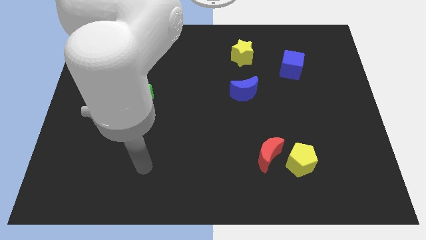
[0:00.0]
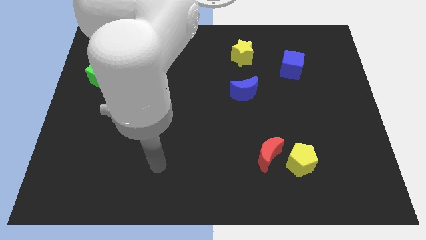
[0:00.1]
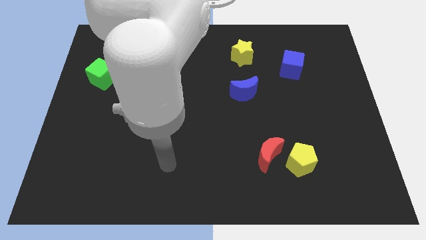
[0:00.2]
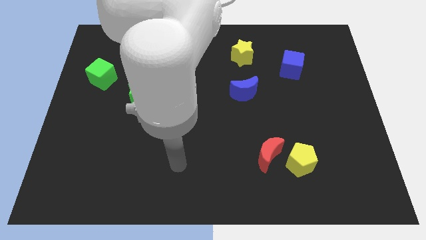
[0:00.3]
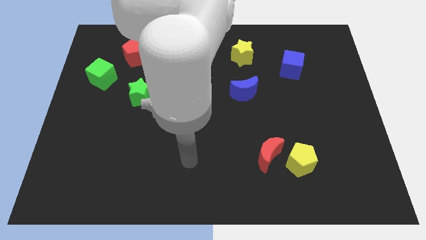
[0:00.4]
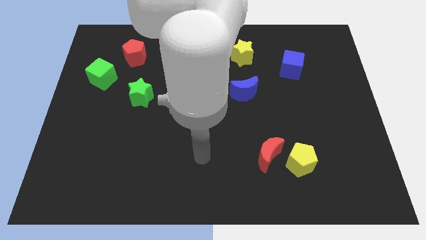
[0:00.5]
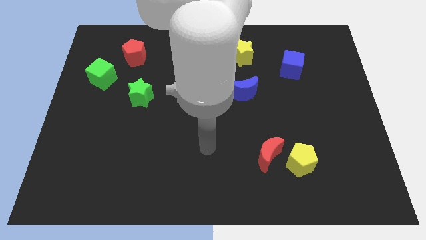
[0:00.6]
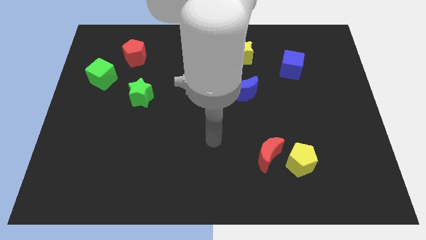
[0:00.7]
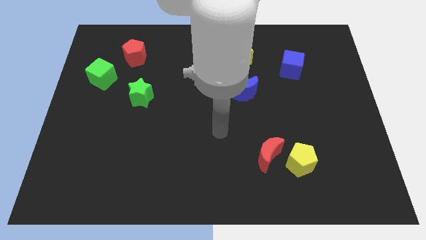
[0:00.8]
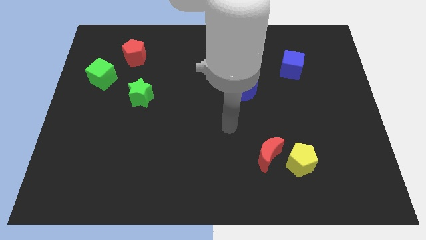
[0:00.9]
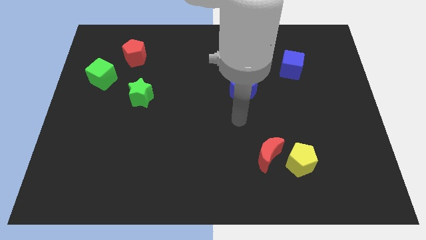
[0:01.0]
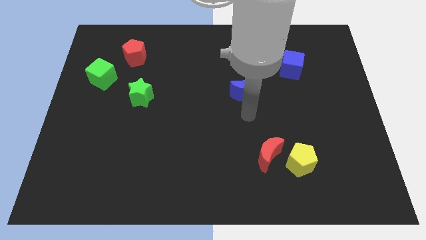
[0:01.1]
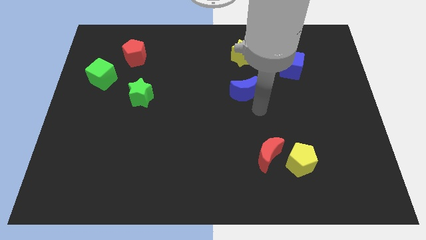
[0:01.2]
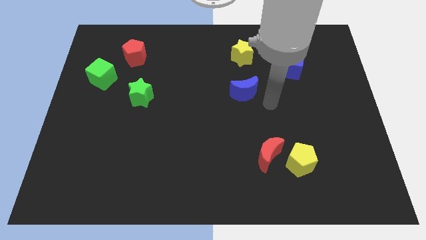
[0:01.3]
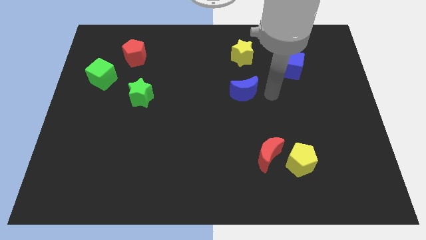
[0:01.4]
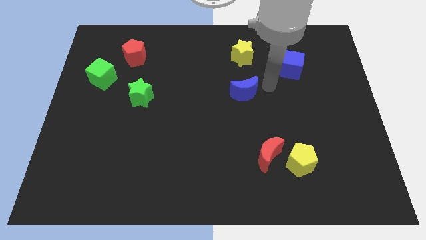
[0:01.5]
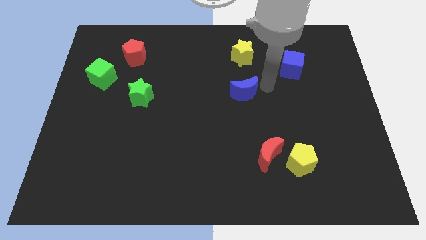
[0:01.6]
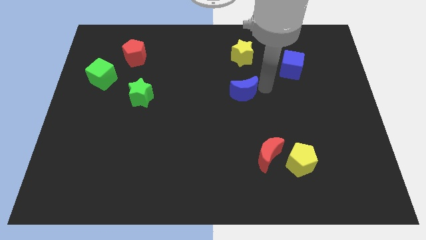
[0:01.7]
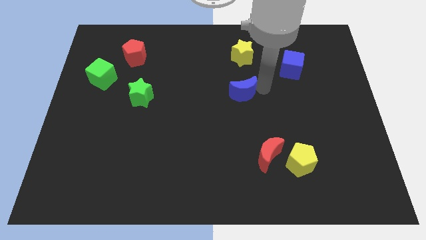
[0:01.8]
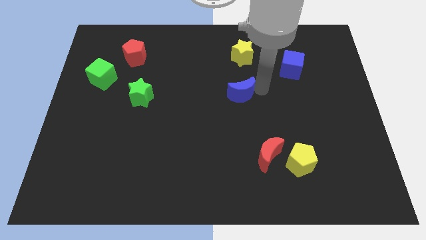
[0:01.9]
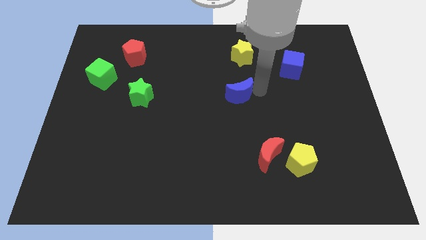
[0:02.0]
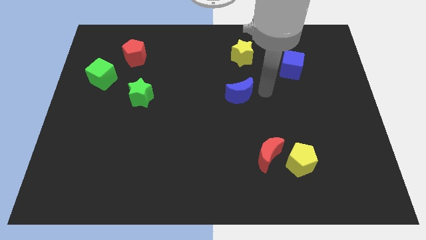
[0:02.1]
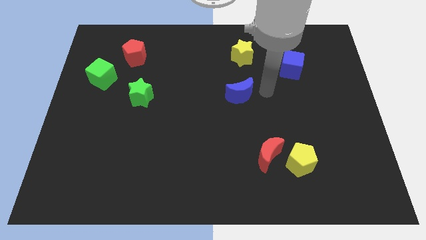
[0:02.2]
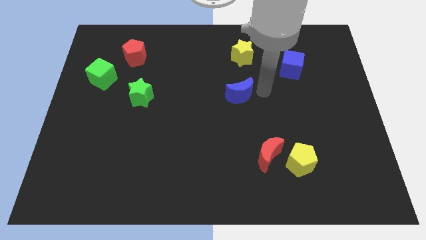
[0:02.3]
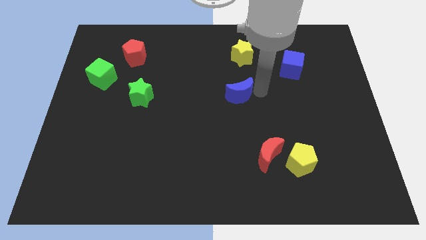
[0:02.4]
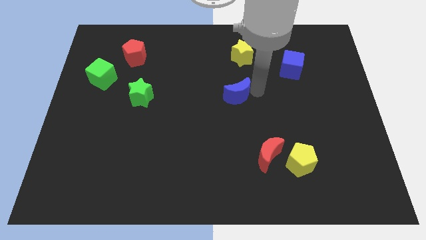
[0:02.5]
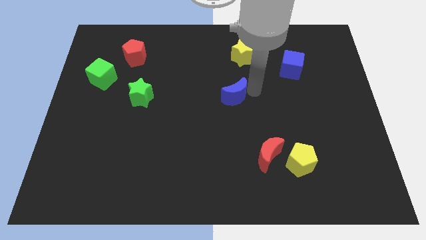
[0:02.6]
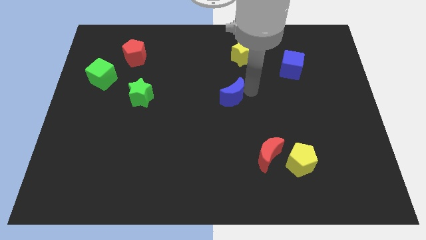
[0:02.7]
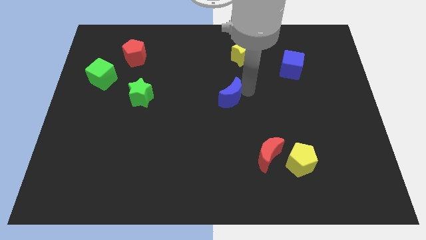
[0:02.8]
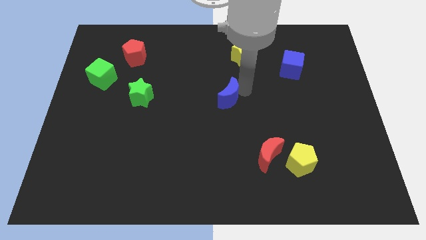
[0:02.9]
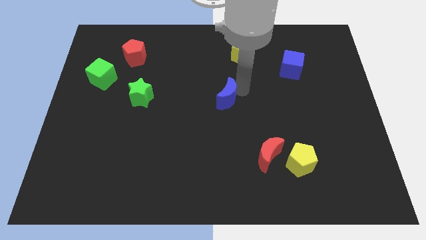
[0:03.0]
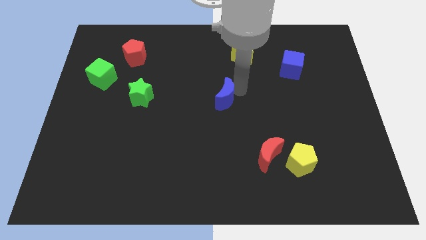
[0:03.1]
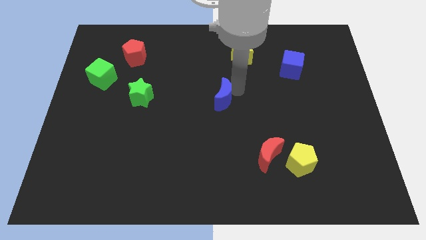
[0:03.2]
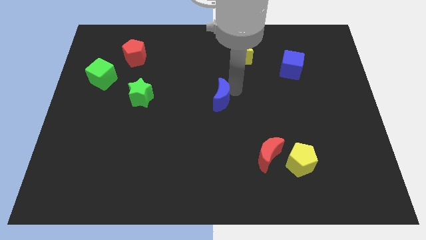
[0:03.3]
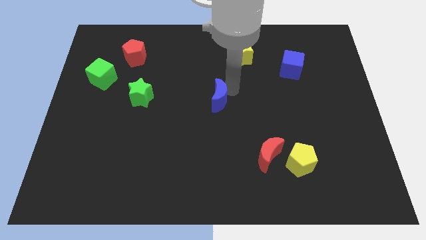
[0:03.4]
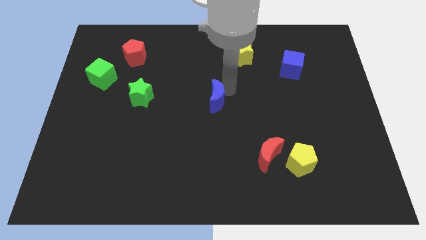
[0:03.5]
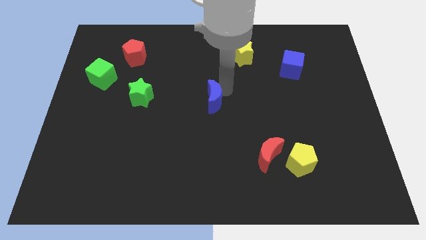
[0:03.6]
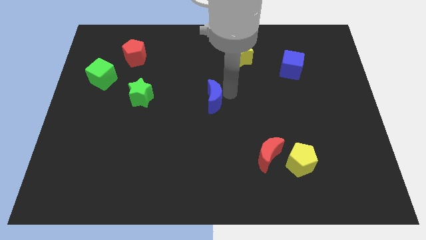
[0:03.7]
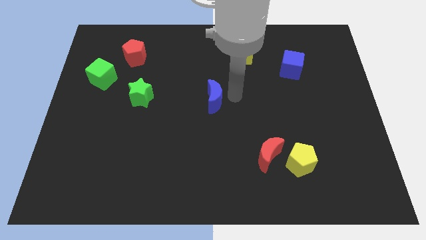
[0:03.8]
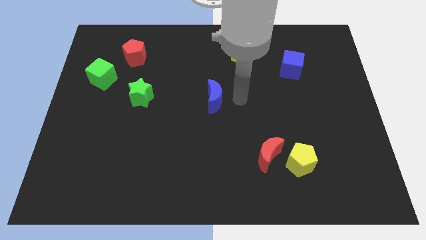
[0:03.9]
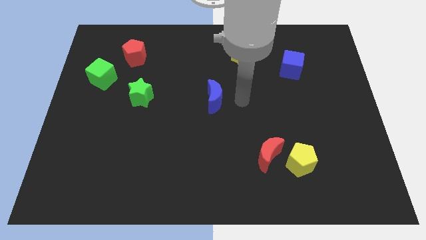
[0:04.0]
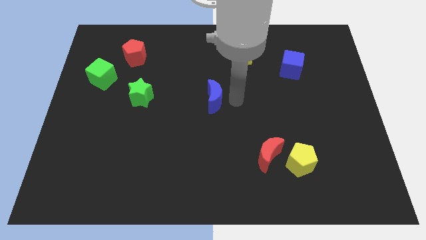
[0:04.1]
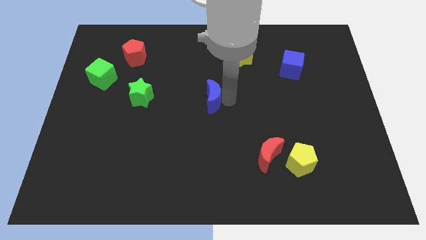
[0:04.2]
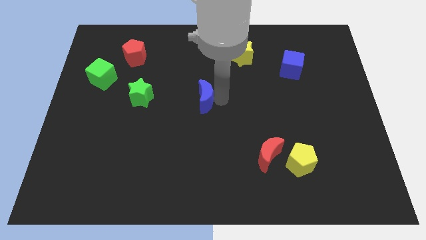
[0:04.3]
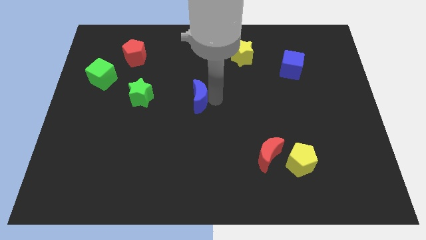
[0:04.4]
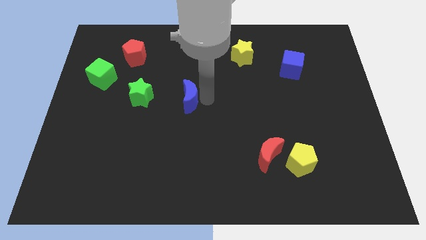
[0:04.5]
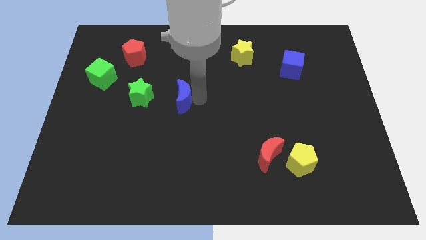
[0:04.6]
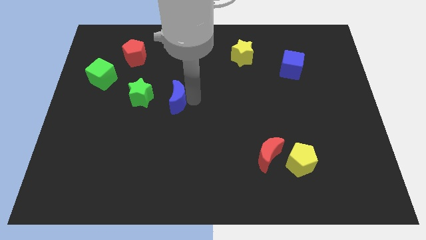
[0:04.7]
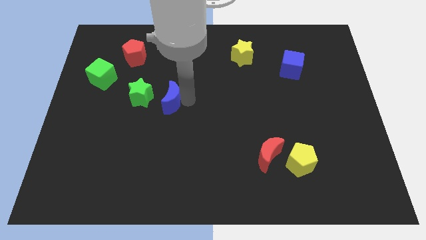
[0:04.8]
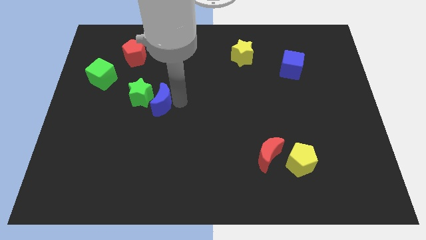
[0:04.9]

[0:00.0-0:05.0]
move the blue moon to the green star

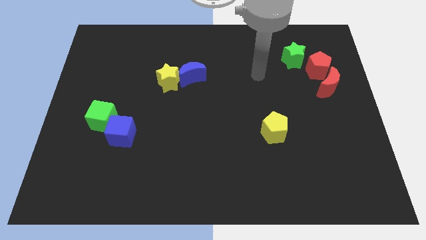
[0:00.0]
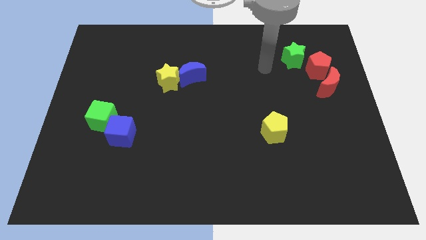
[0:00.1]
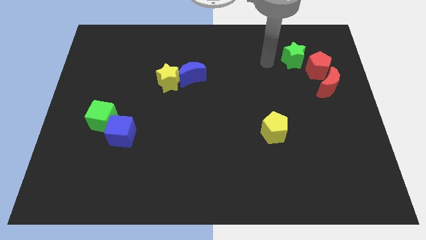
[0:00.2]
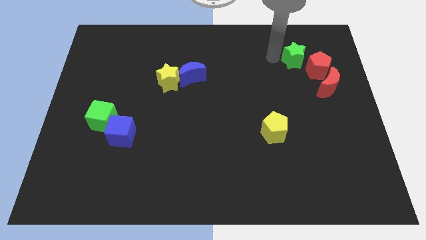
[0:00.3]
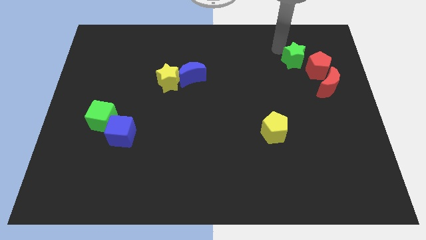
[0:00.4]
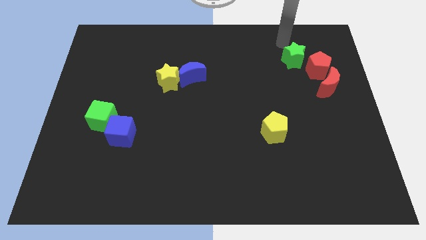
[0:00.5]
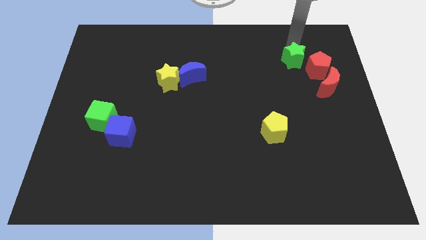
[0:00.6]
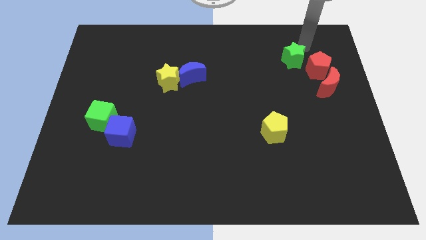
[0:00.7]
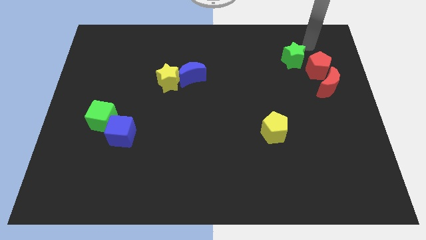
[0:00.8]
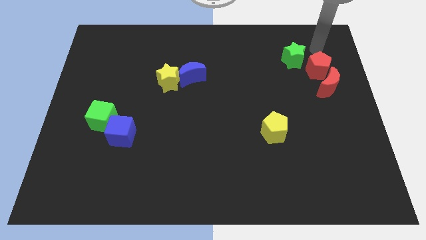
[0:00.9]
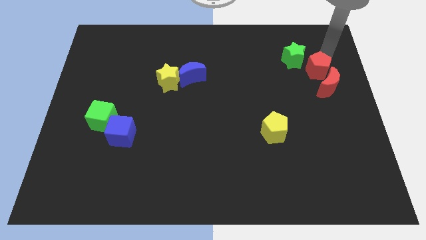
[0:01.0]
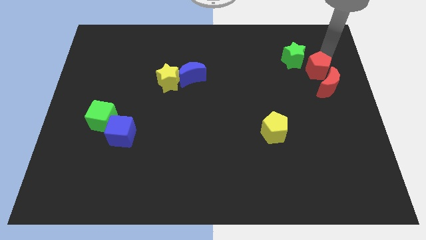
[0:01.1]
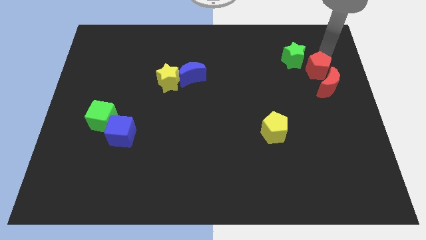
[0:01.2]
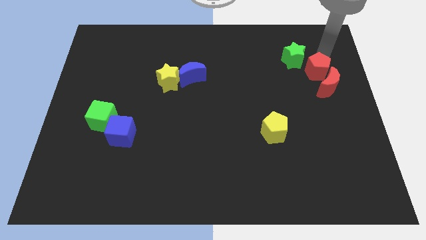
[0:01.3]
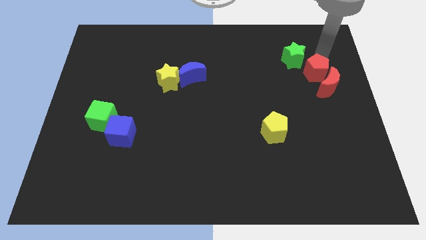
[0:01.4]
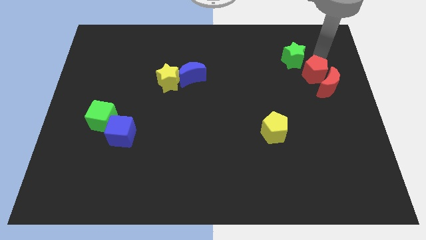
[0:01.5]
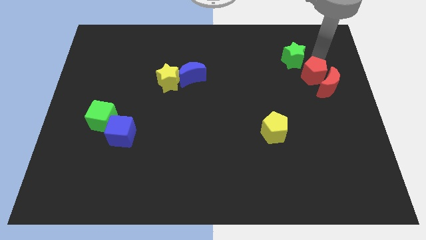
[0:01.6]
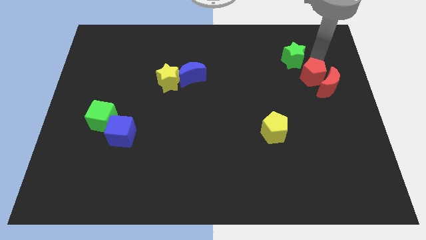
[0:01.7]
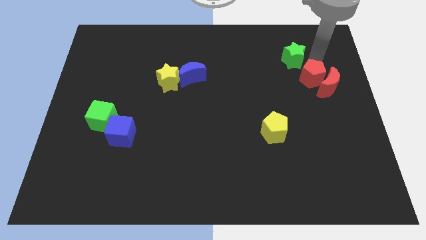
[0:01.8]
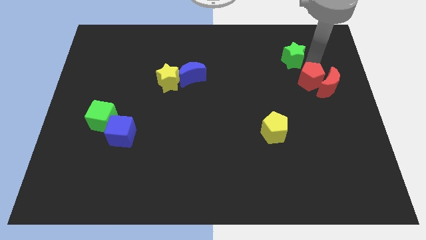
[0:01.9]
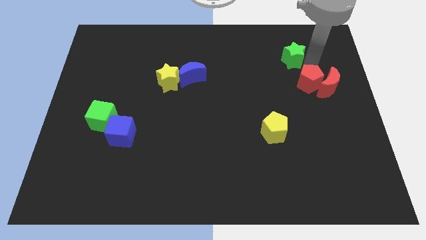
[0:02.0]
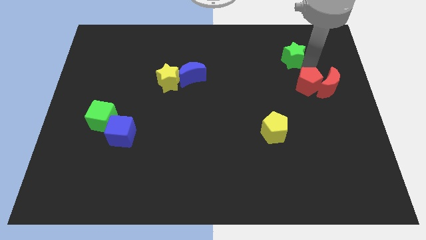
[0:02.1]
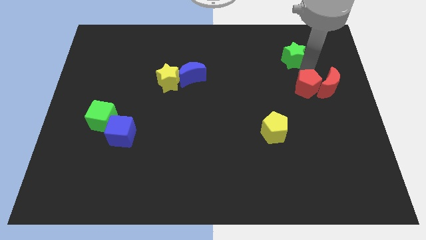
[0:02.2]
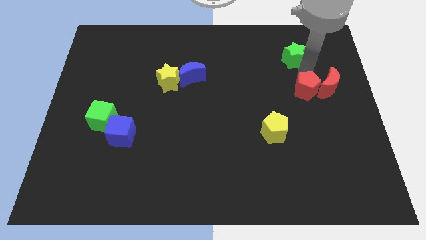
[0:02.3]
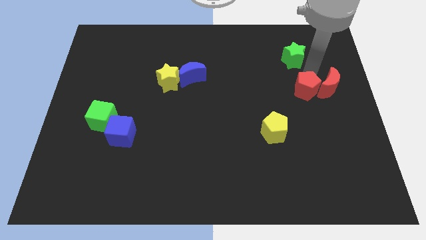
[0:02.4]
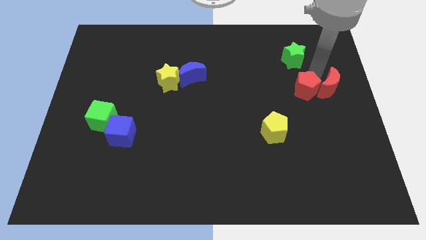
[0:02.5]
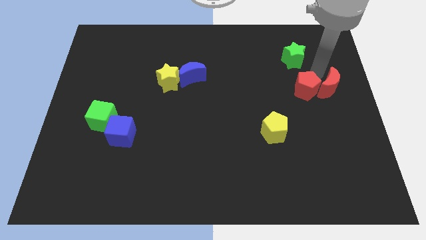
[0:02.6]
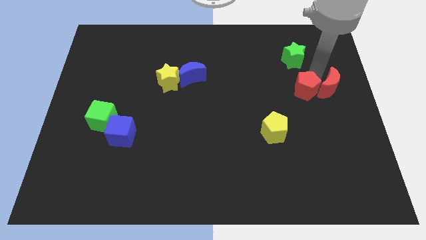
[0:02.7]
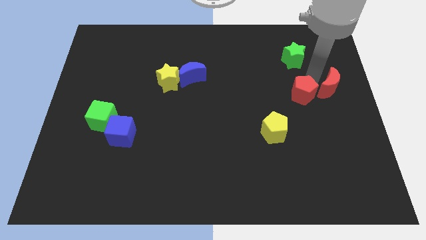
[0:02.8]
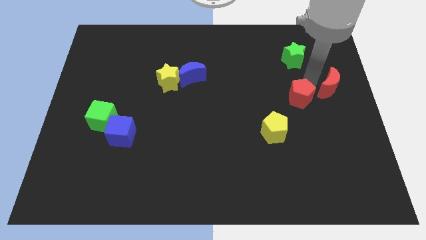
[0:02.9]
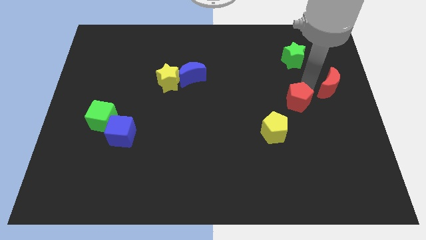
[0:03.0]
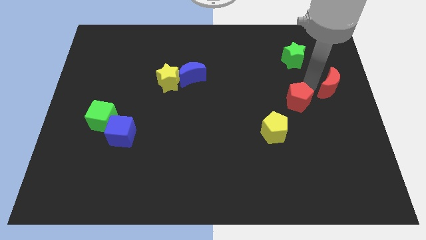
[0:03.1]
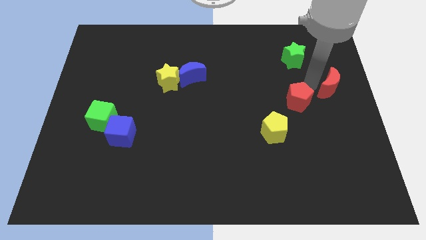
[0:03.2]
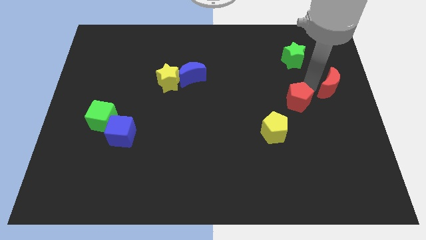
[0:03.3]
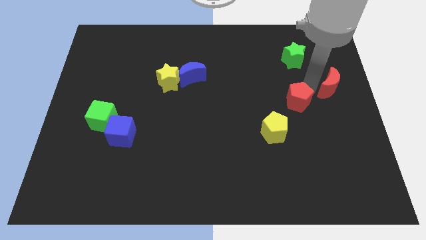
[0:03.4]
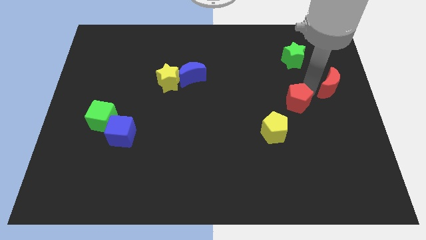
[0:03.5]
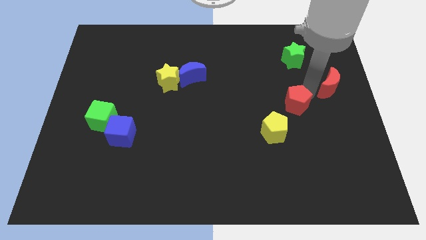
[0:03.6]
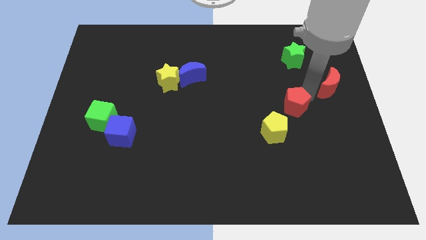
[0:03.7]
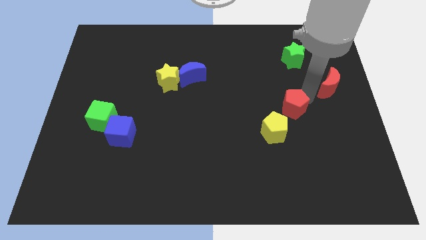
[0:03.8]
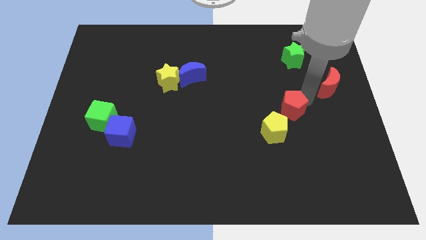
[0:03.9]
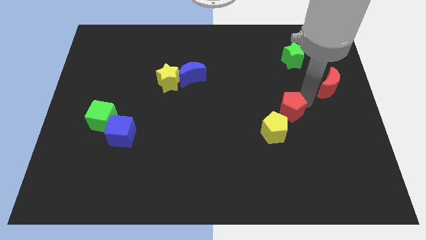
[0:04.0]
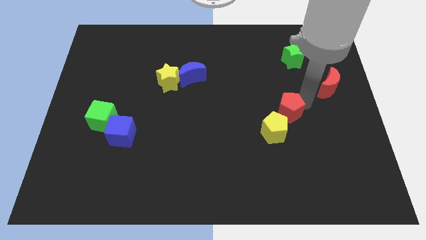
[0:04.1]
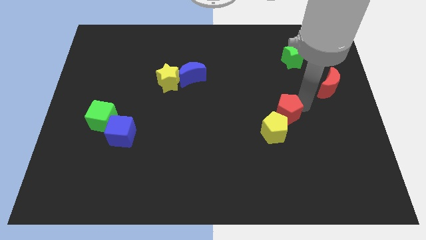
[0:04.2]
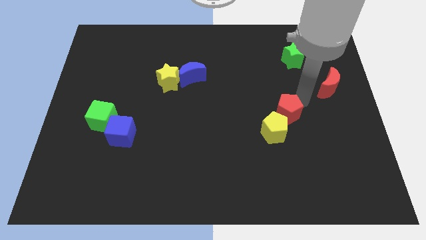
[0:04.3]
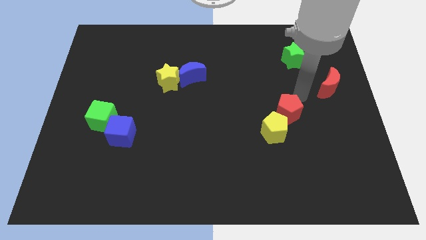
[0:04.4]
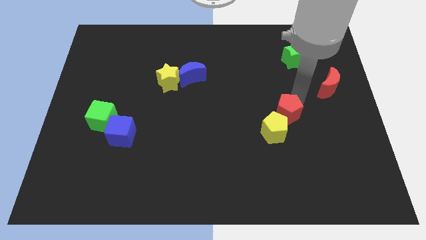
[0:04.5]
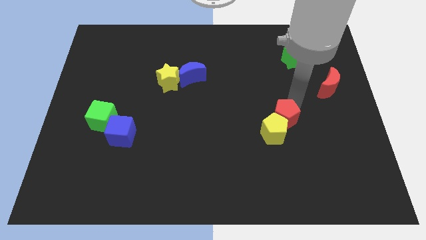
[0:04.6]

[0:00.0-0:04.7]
push the red pentagon close to the yellow pentagon
